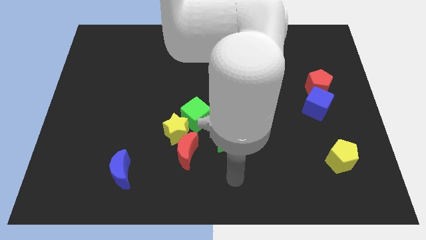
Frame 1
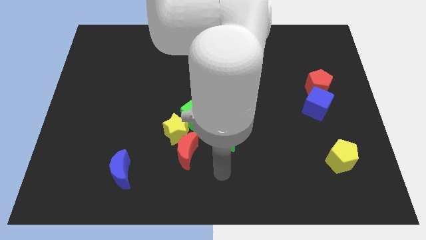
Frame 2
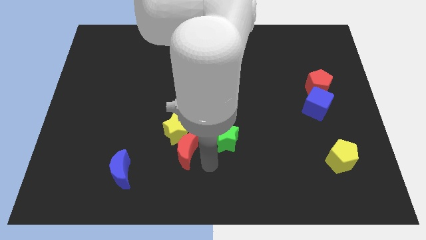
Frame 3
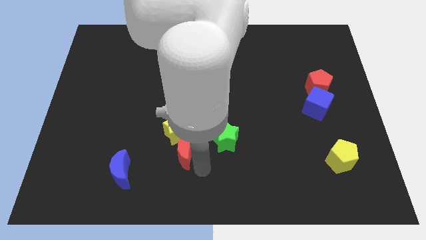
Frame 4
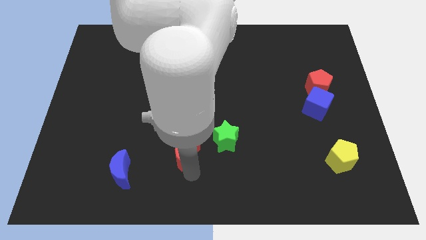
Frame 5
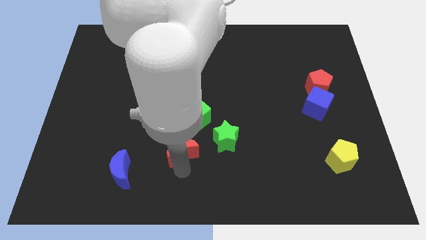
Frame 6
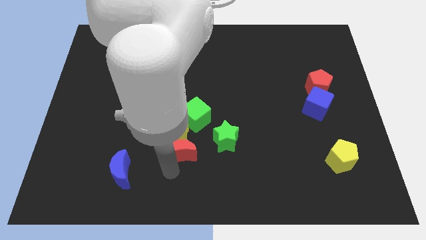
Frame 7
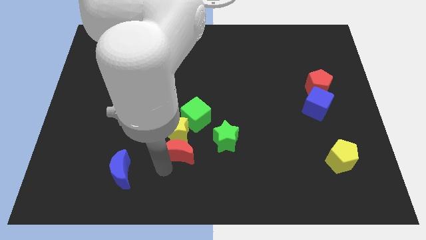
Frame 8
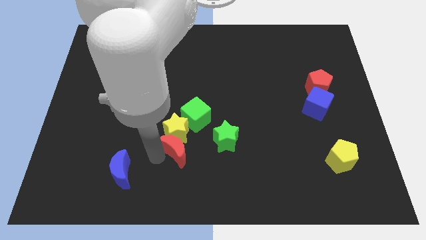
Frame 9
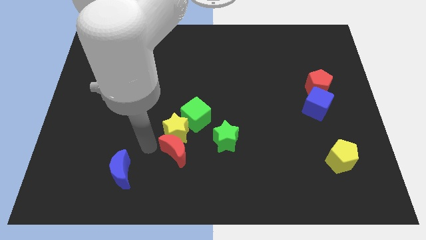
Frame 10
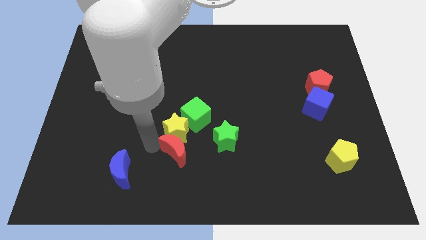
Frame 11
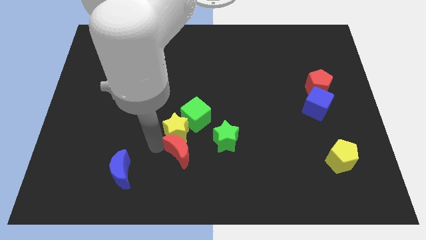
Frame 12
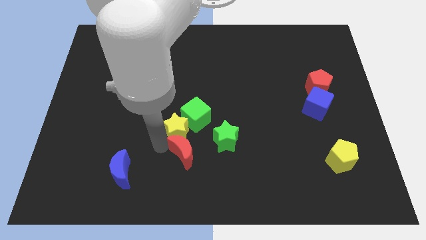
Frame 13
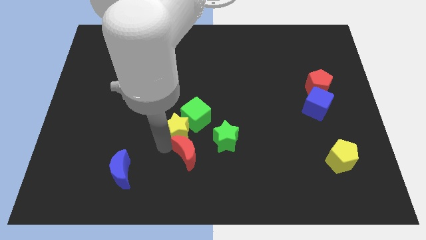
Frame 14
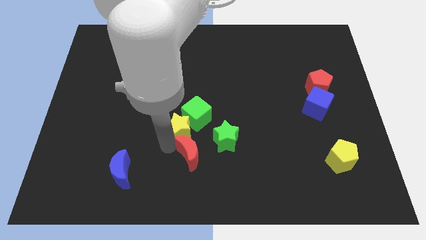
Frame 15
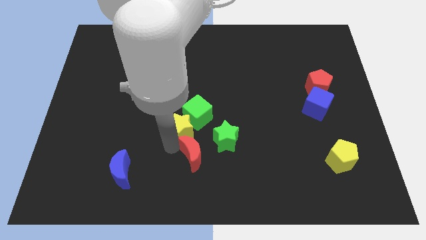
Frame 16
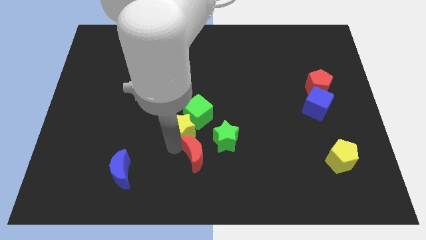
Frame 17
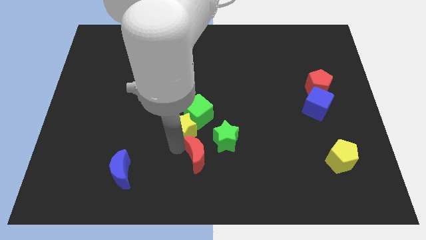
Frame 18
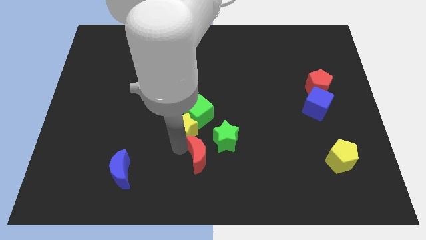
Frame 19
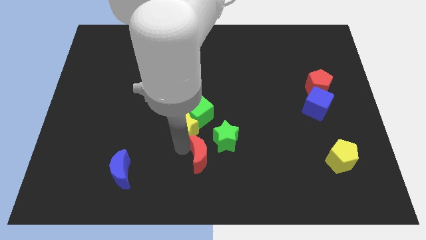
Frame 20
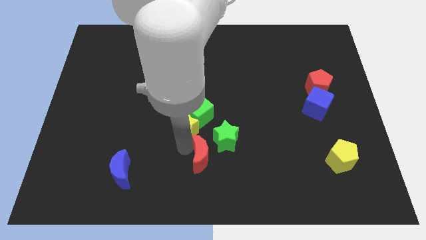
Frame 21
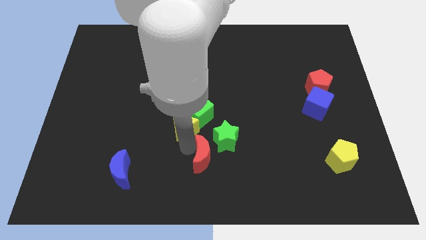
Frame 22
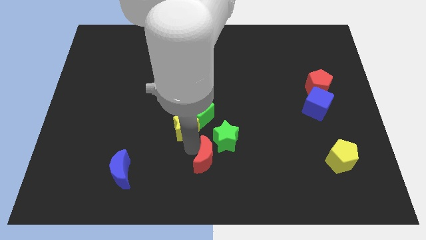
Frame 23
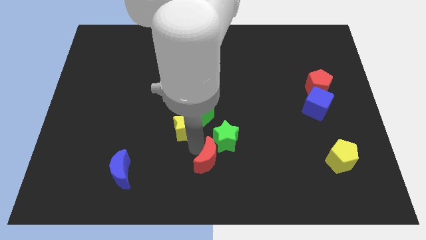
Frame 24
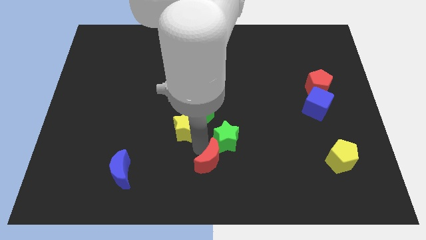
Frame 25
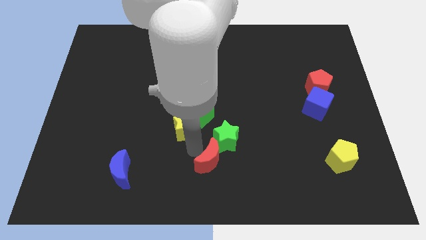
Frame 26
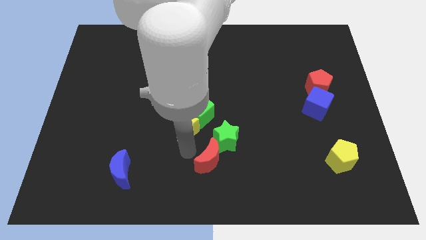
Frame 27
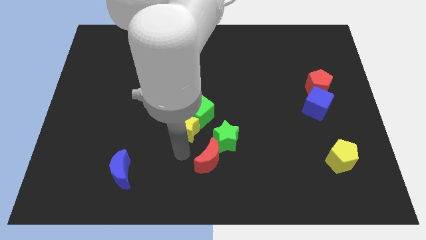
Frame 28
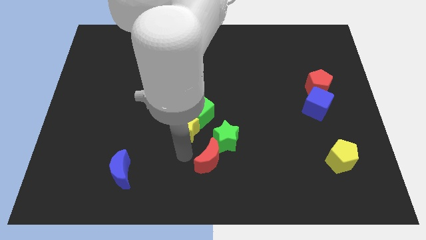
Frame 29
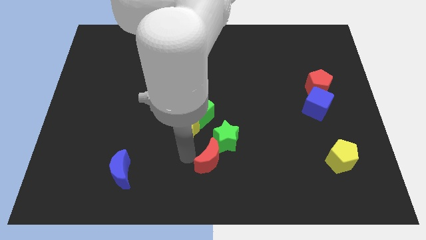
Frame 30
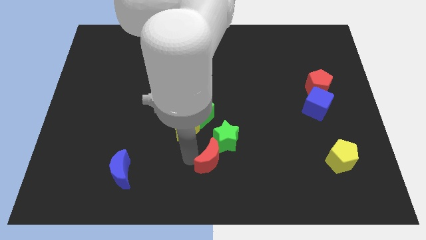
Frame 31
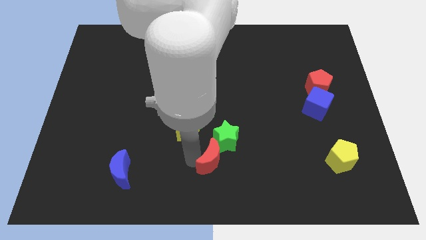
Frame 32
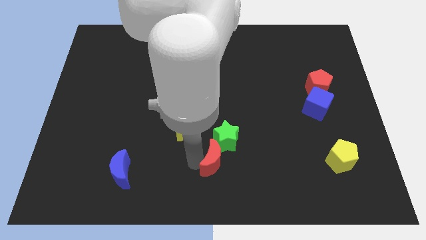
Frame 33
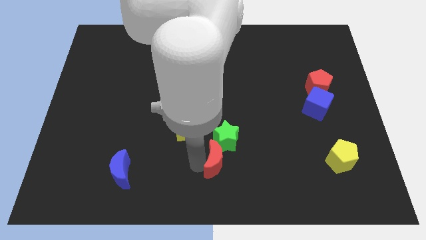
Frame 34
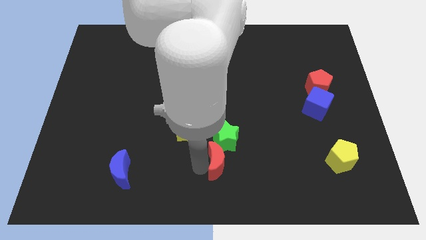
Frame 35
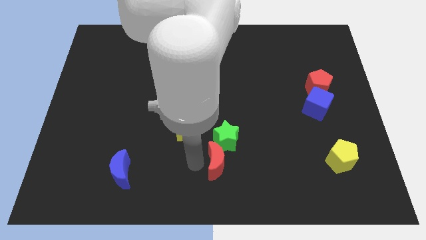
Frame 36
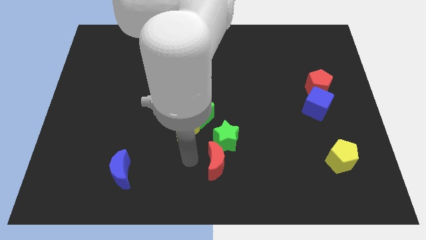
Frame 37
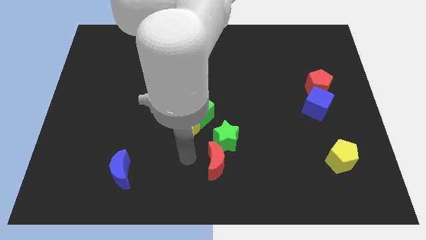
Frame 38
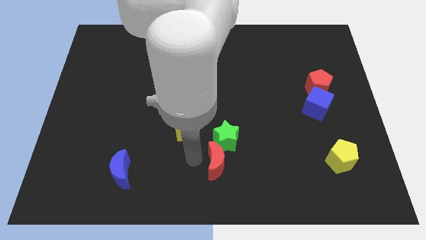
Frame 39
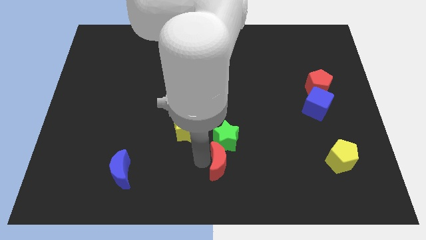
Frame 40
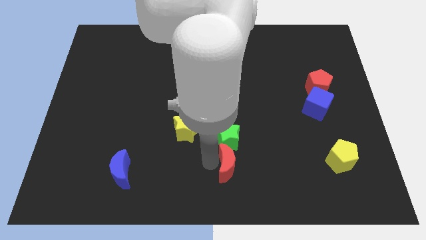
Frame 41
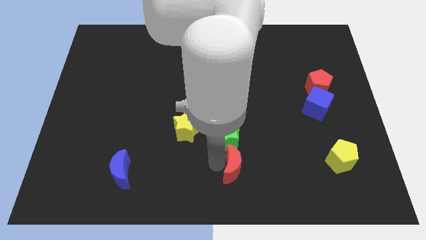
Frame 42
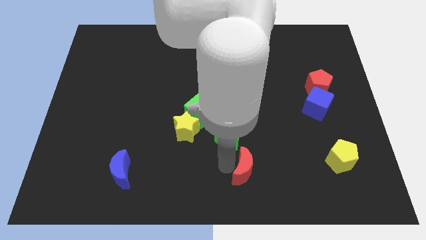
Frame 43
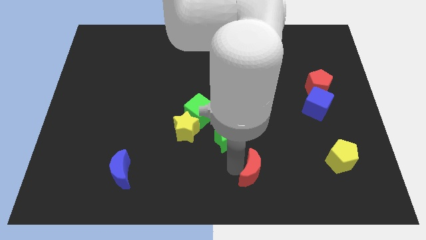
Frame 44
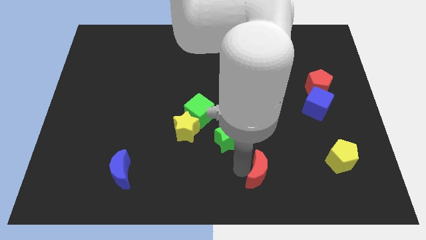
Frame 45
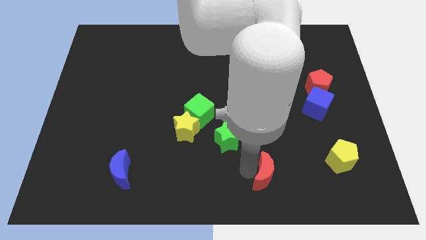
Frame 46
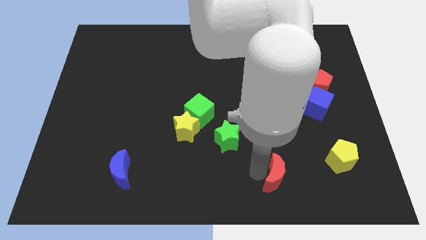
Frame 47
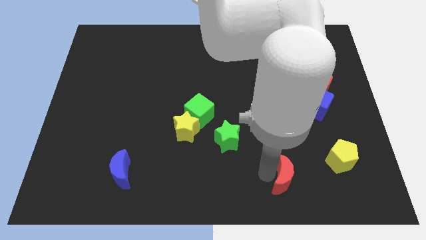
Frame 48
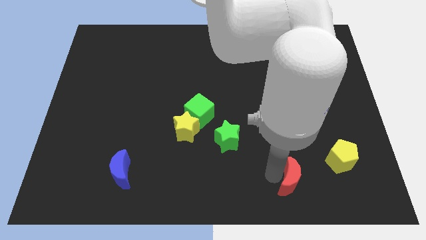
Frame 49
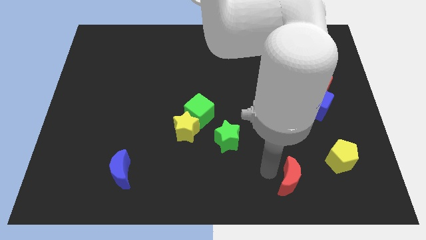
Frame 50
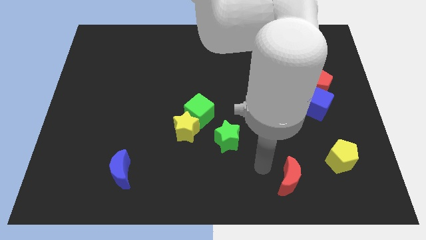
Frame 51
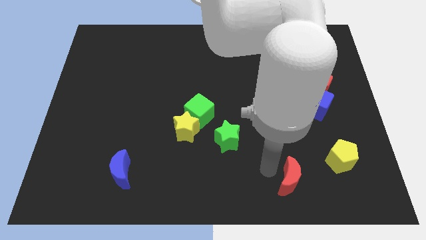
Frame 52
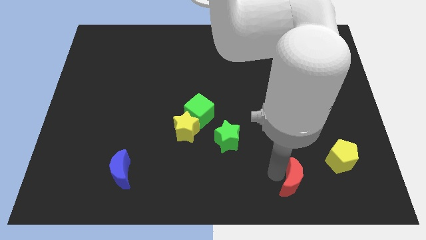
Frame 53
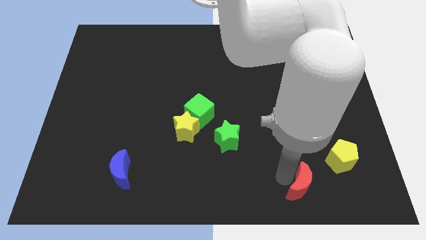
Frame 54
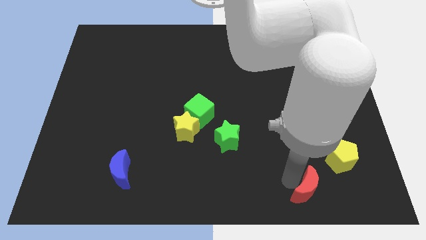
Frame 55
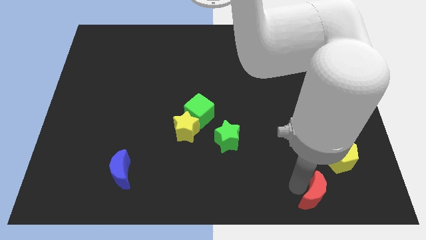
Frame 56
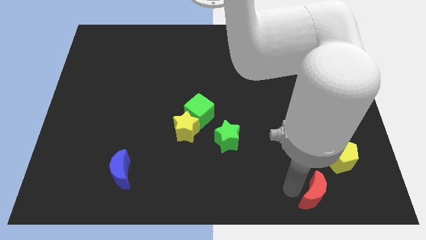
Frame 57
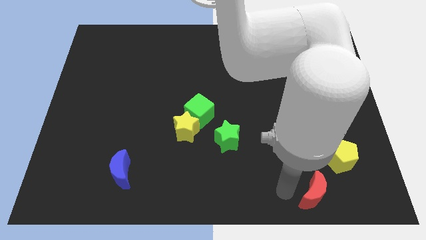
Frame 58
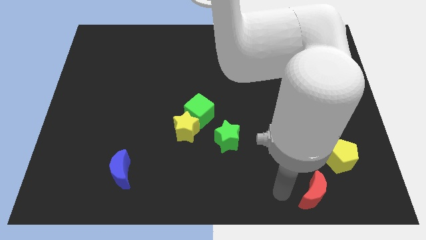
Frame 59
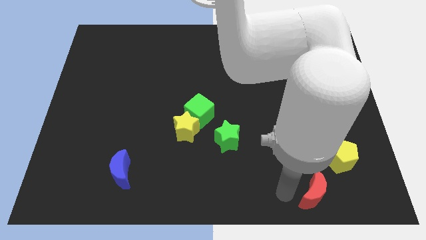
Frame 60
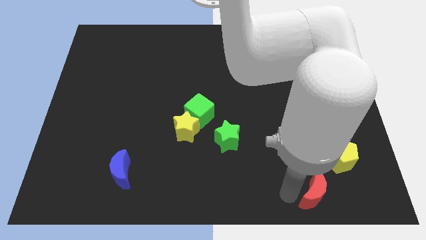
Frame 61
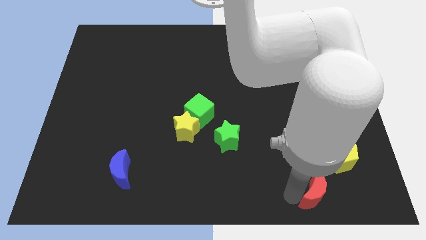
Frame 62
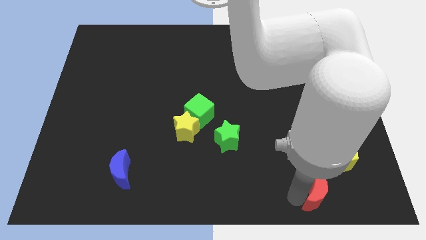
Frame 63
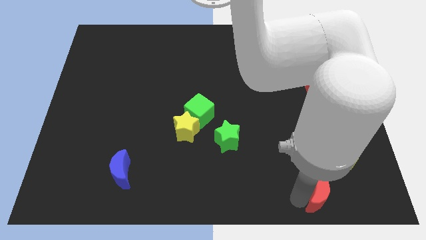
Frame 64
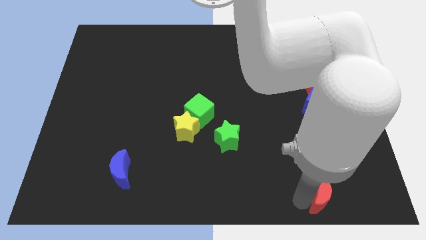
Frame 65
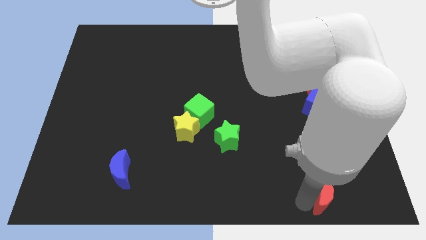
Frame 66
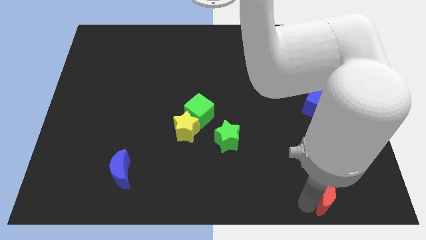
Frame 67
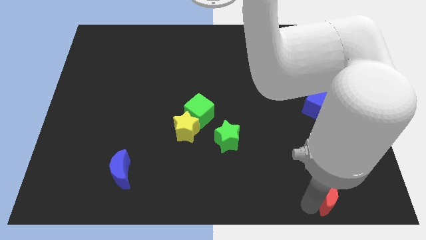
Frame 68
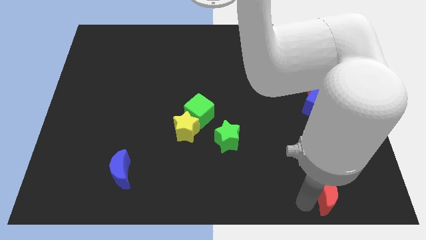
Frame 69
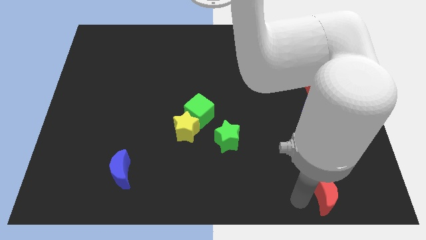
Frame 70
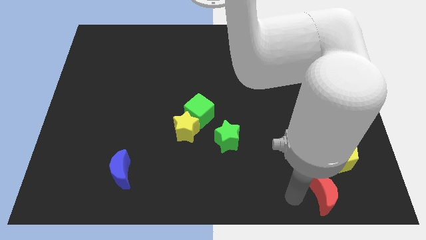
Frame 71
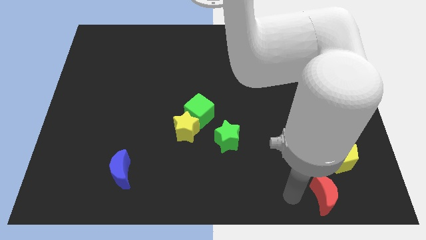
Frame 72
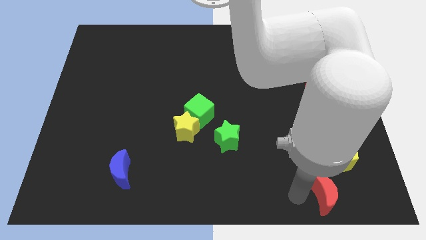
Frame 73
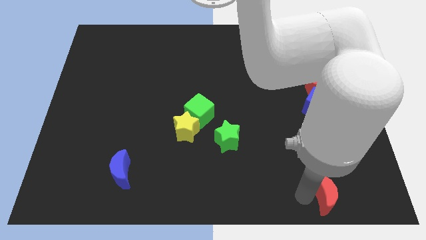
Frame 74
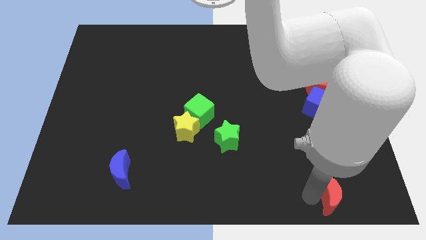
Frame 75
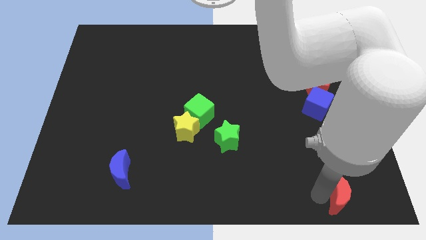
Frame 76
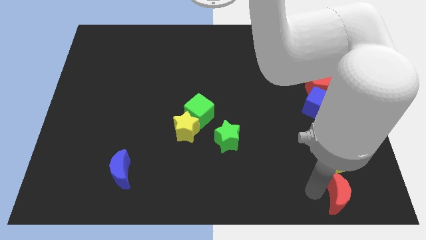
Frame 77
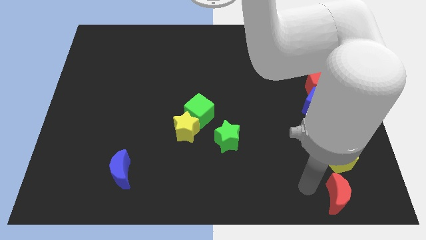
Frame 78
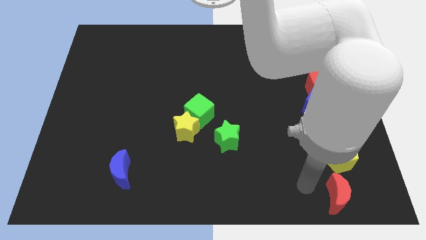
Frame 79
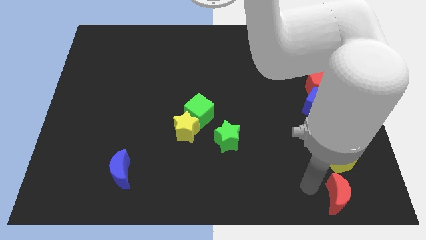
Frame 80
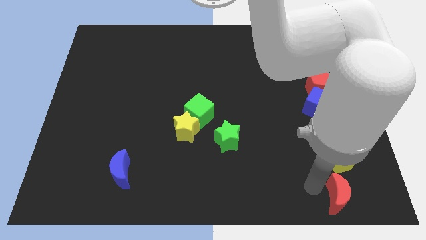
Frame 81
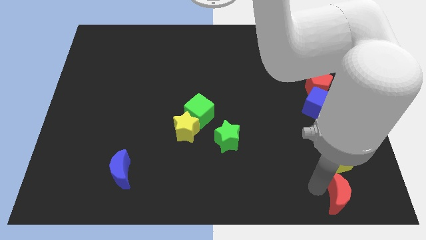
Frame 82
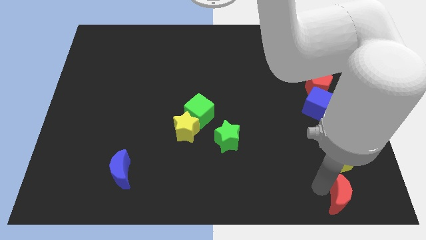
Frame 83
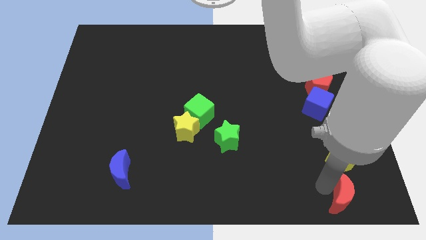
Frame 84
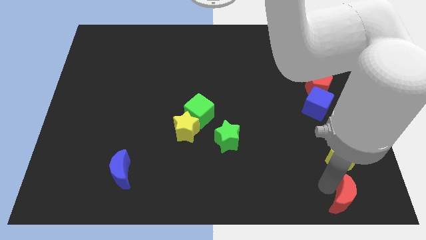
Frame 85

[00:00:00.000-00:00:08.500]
move the red moon to the bottom right of the board
